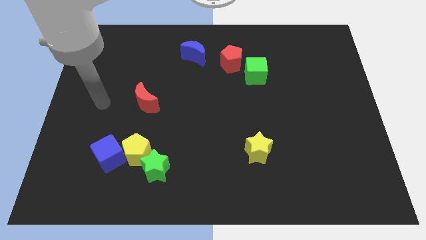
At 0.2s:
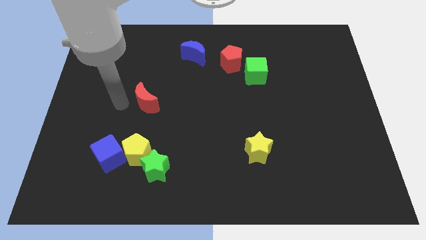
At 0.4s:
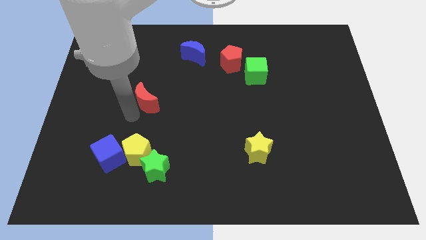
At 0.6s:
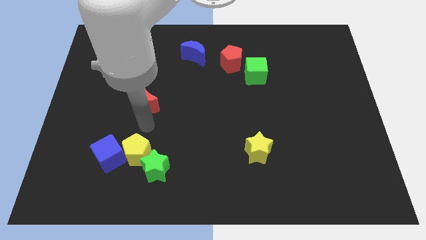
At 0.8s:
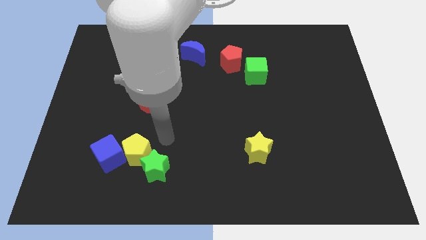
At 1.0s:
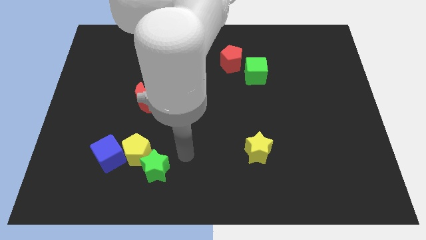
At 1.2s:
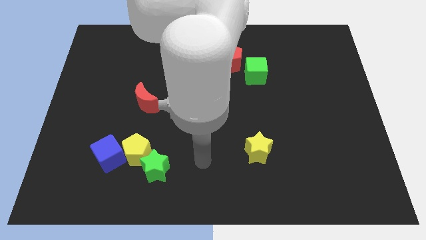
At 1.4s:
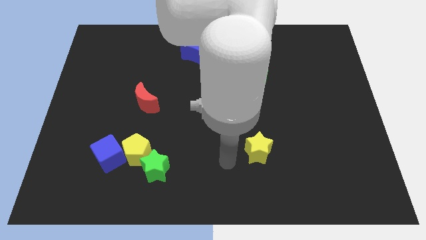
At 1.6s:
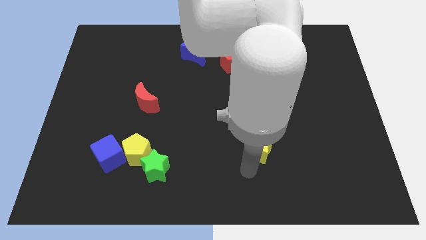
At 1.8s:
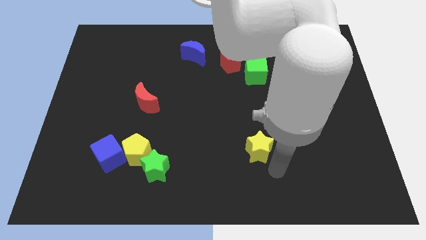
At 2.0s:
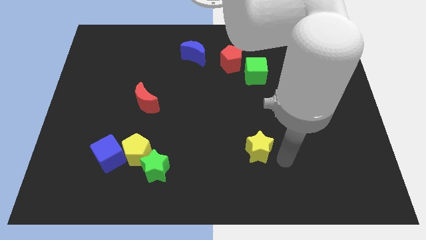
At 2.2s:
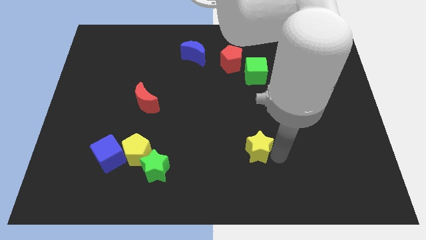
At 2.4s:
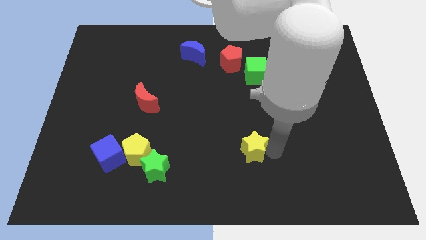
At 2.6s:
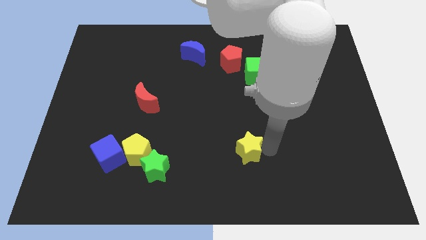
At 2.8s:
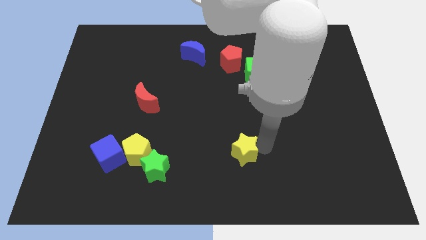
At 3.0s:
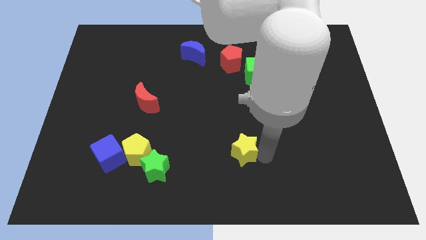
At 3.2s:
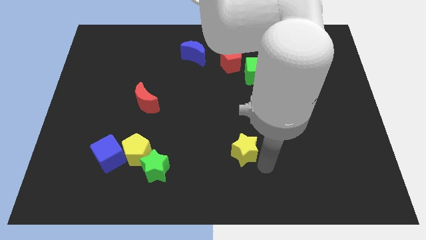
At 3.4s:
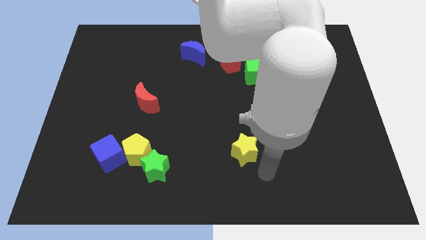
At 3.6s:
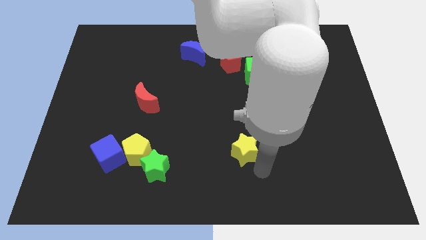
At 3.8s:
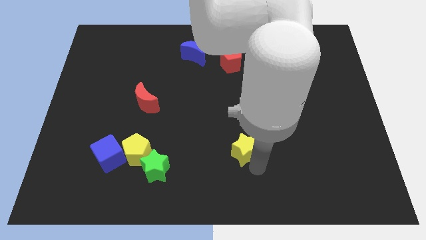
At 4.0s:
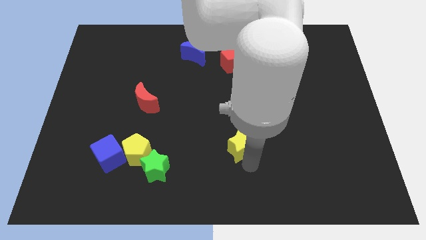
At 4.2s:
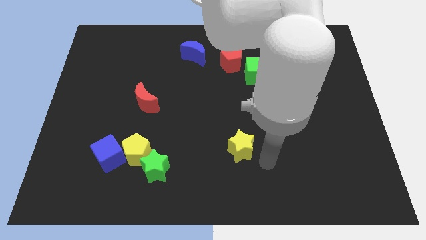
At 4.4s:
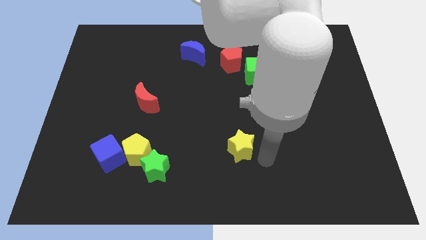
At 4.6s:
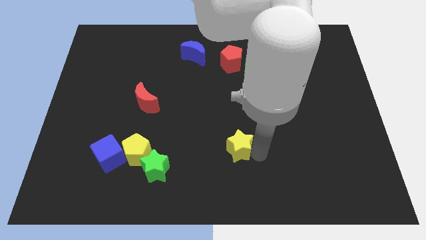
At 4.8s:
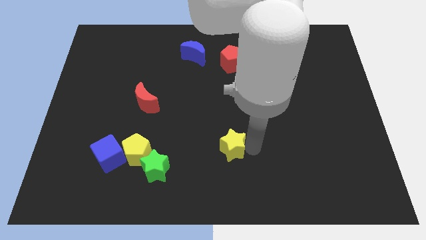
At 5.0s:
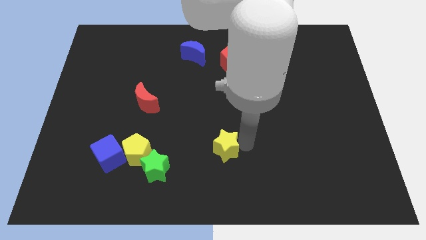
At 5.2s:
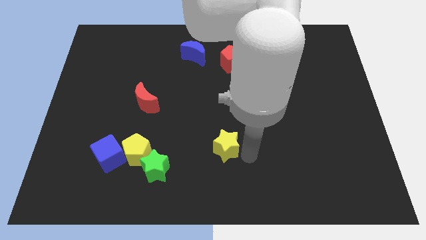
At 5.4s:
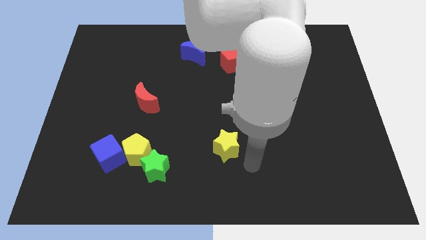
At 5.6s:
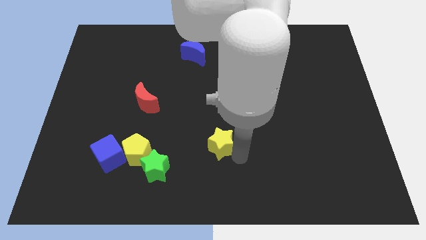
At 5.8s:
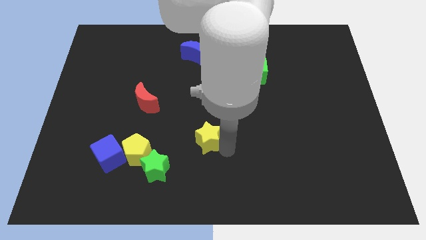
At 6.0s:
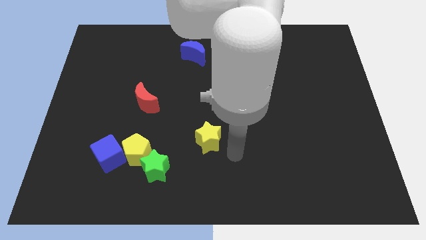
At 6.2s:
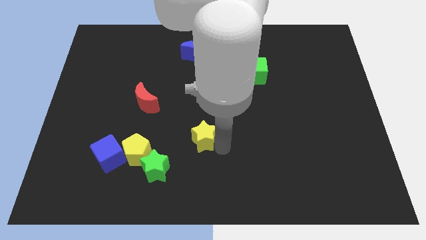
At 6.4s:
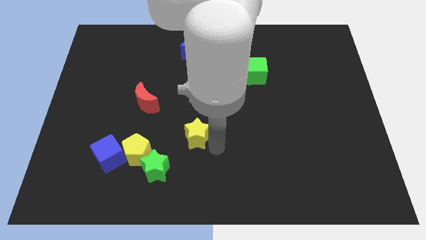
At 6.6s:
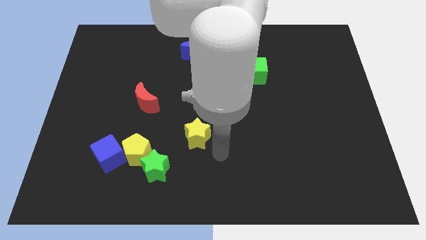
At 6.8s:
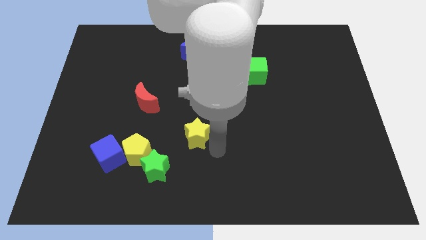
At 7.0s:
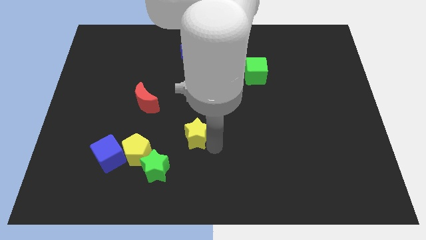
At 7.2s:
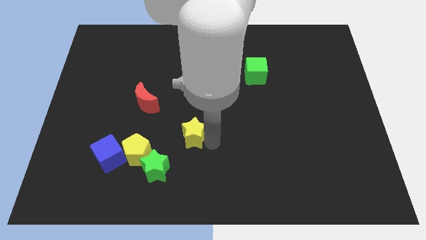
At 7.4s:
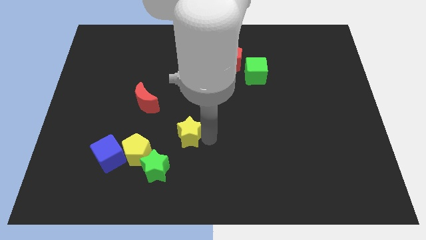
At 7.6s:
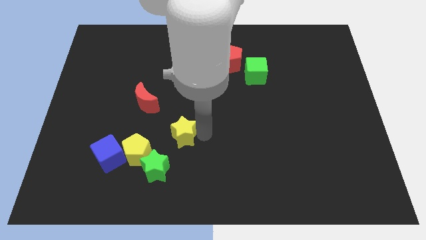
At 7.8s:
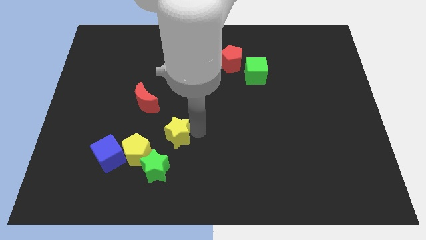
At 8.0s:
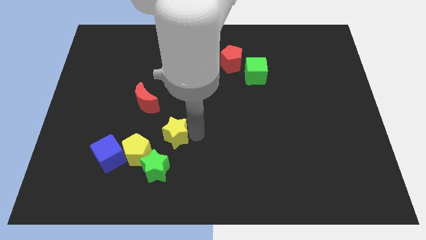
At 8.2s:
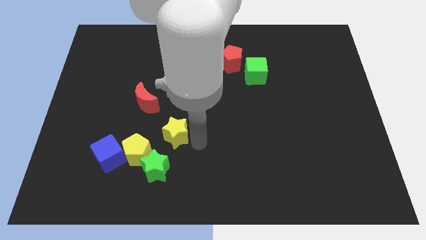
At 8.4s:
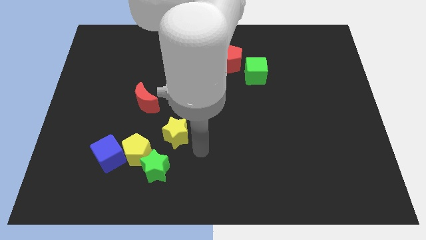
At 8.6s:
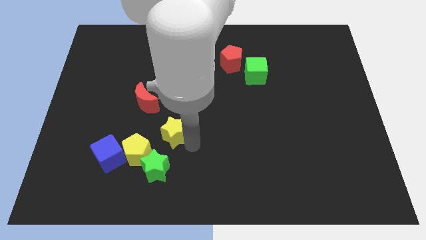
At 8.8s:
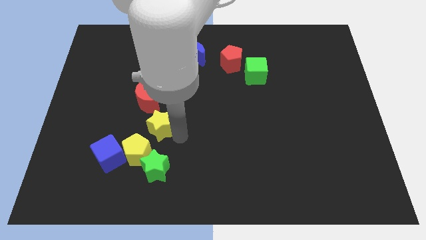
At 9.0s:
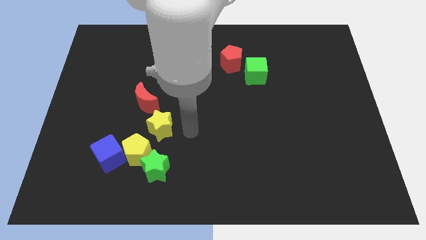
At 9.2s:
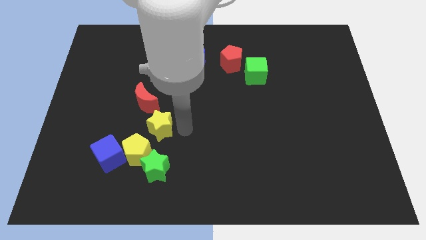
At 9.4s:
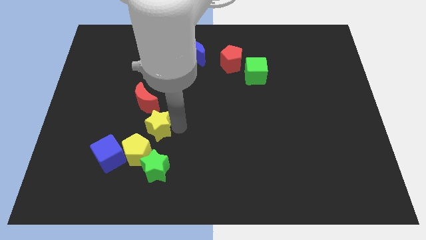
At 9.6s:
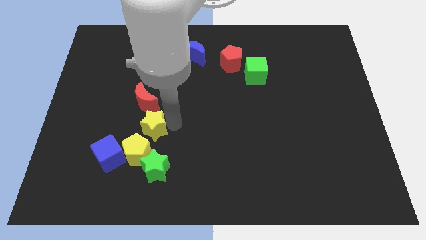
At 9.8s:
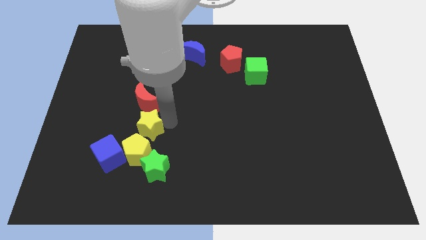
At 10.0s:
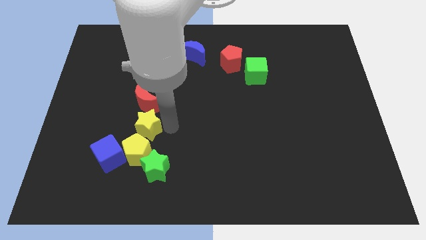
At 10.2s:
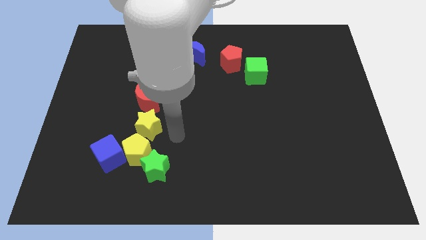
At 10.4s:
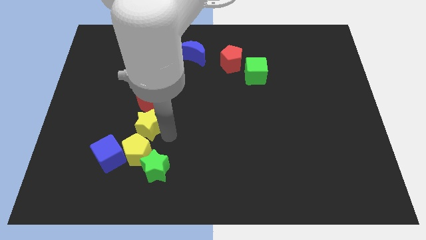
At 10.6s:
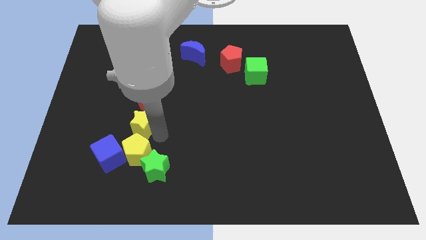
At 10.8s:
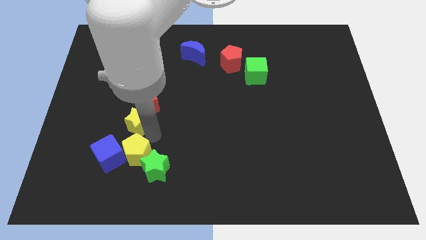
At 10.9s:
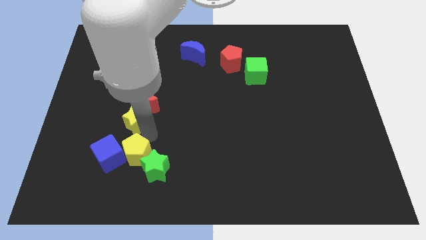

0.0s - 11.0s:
move the yellow star to the top of the blue cube

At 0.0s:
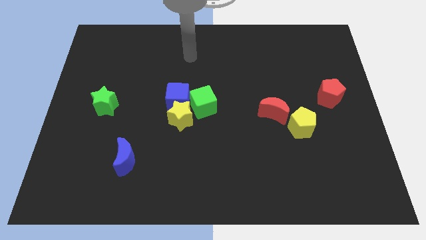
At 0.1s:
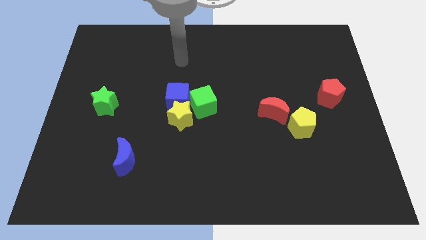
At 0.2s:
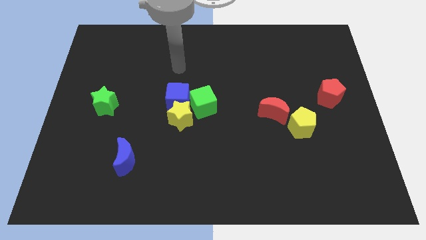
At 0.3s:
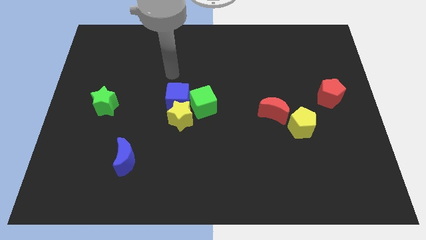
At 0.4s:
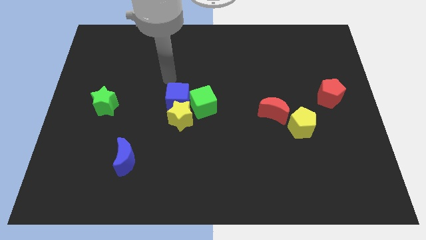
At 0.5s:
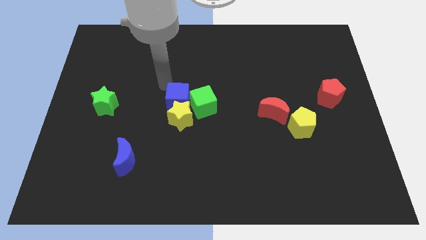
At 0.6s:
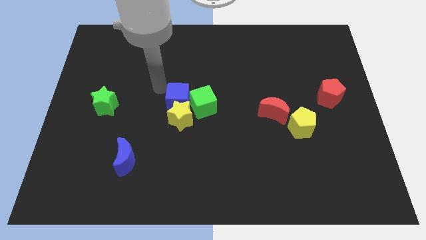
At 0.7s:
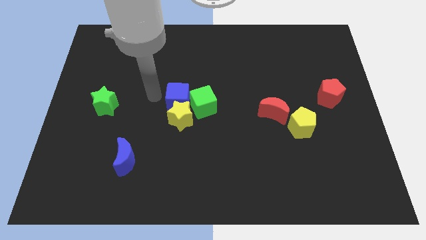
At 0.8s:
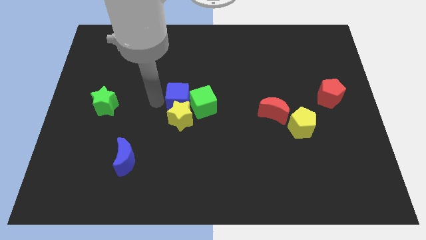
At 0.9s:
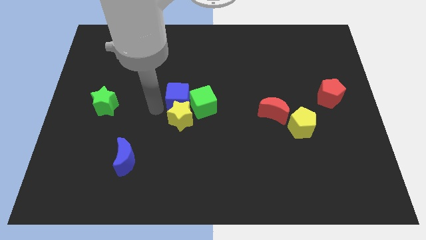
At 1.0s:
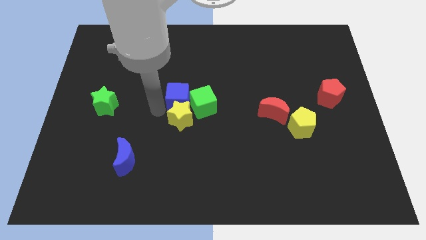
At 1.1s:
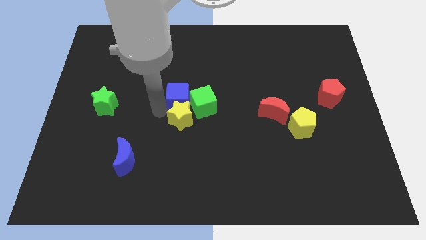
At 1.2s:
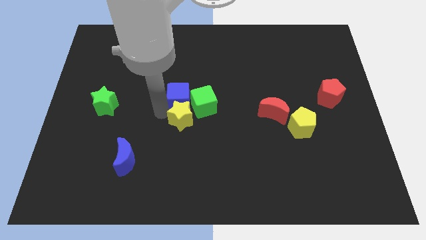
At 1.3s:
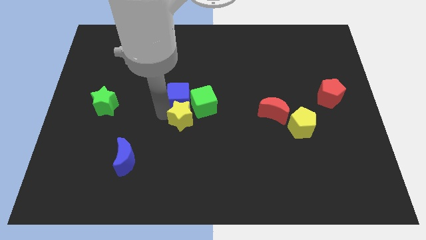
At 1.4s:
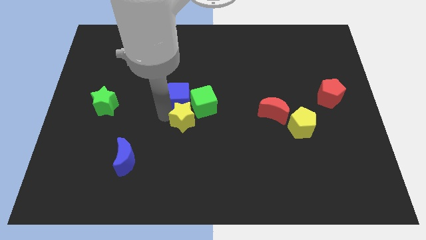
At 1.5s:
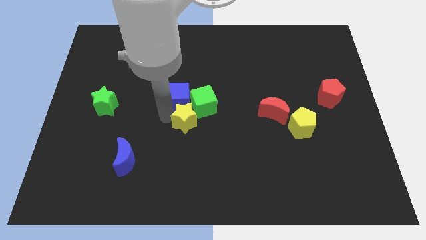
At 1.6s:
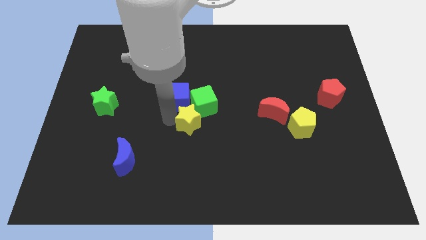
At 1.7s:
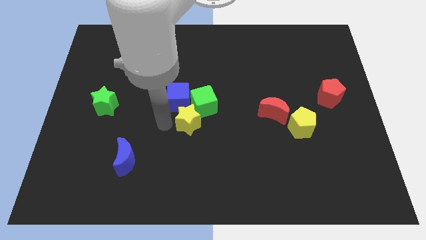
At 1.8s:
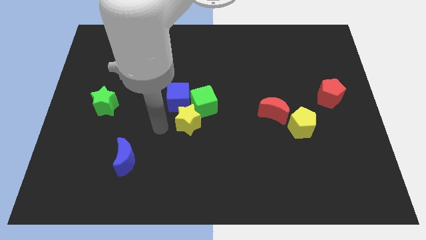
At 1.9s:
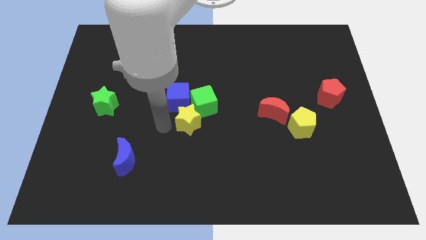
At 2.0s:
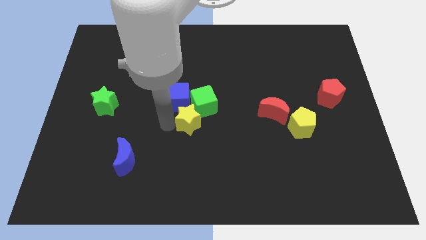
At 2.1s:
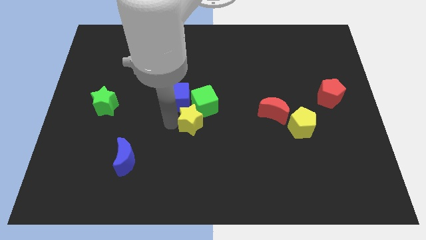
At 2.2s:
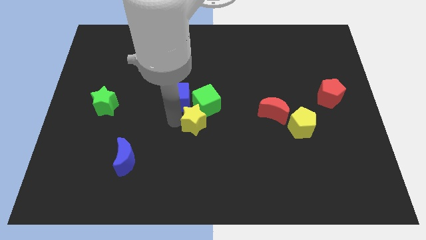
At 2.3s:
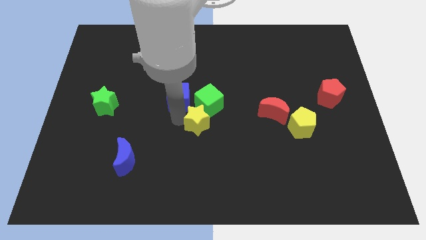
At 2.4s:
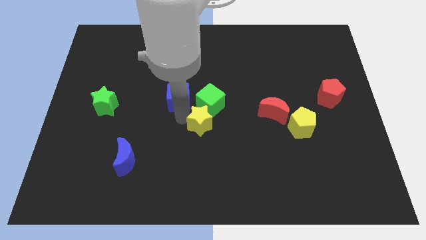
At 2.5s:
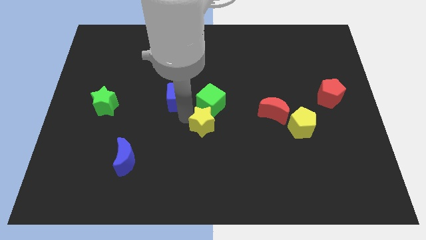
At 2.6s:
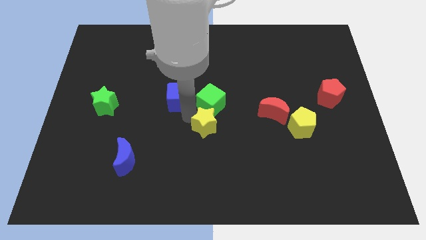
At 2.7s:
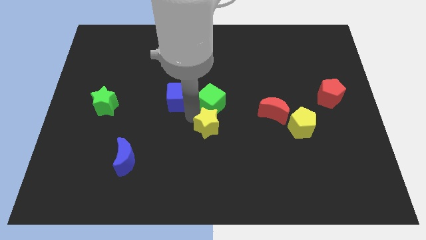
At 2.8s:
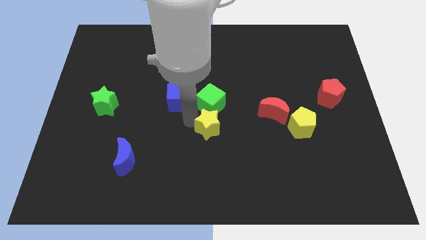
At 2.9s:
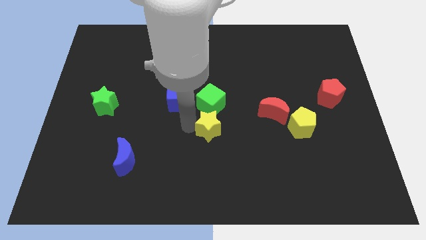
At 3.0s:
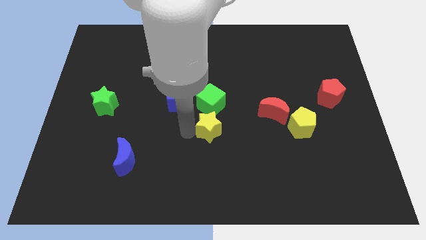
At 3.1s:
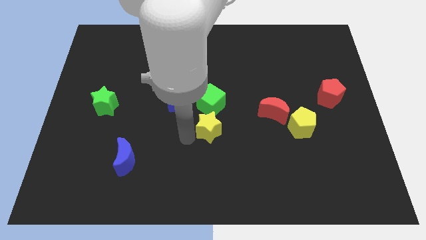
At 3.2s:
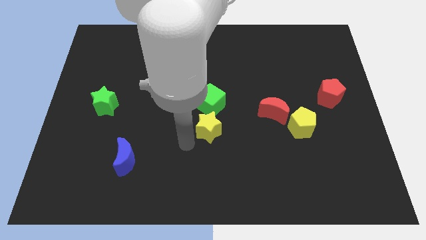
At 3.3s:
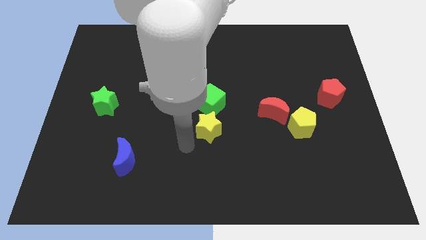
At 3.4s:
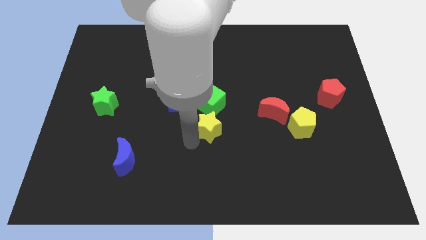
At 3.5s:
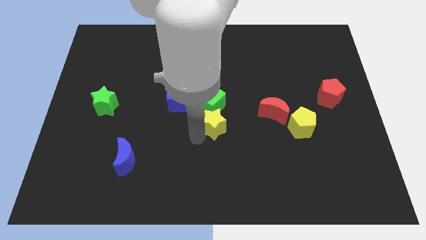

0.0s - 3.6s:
put the yellow star to the left side of the red moon
